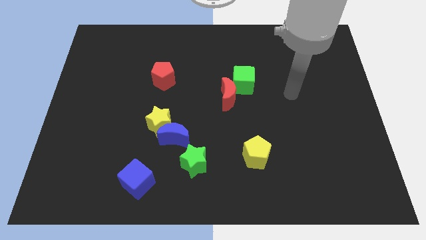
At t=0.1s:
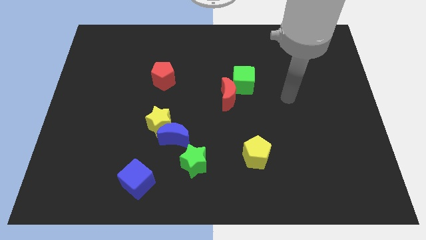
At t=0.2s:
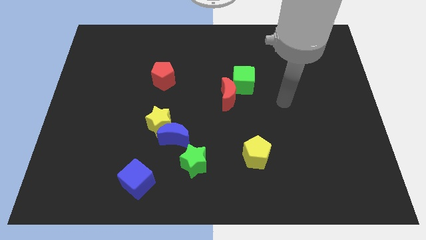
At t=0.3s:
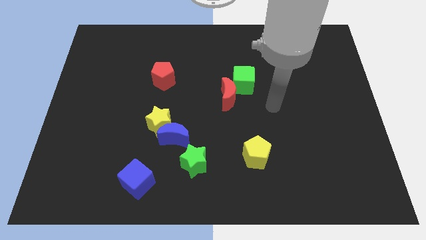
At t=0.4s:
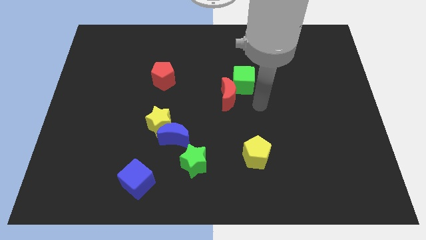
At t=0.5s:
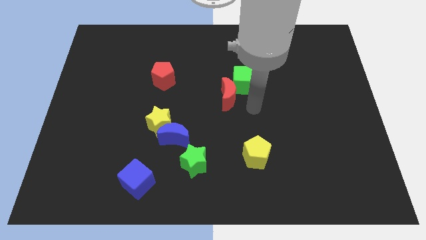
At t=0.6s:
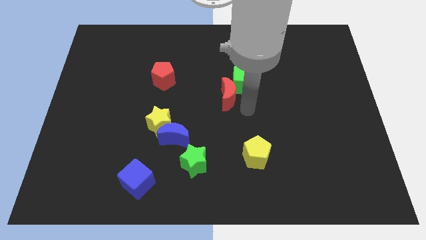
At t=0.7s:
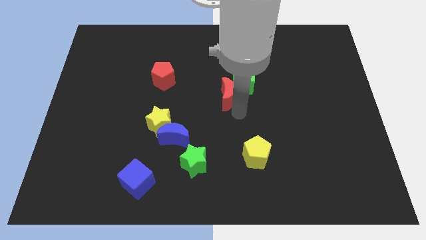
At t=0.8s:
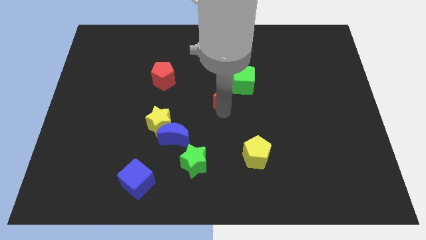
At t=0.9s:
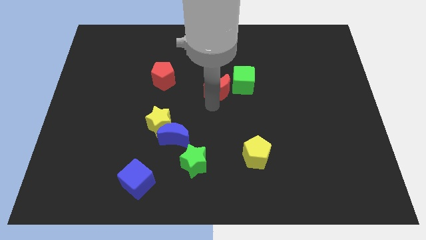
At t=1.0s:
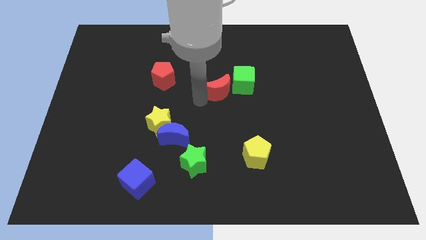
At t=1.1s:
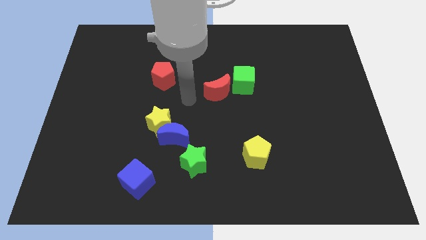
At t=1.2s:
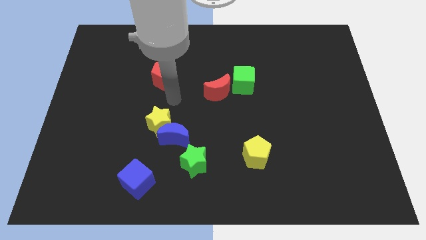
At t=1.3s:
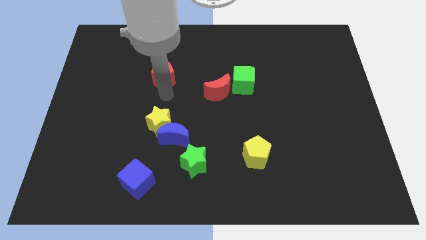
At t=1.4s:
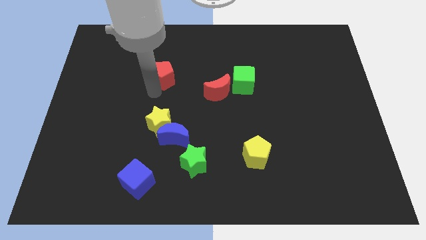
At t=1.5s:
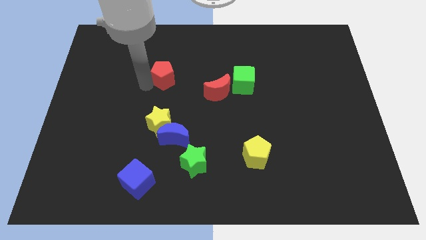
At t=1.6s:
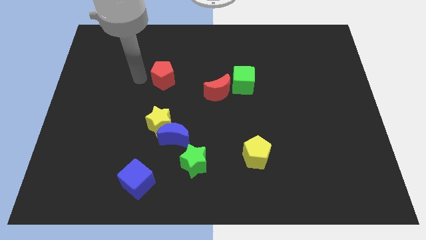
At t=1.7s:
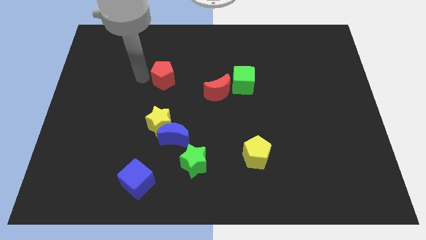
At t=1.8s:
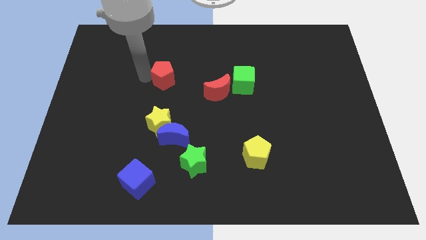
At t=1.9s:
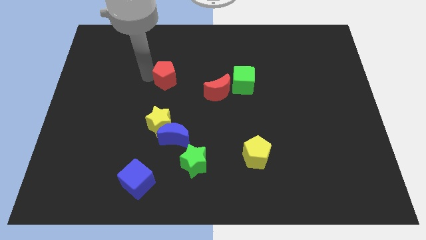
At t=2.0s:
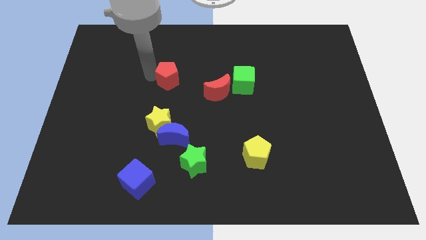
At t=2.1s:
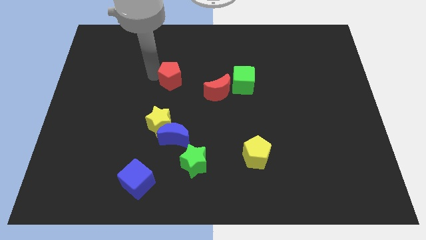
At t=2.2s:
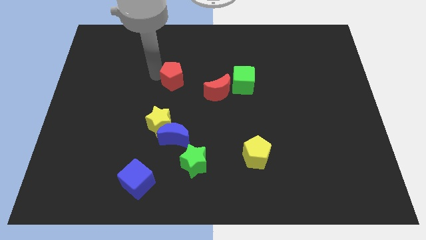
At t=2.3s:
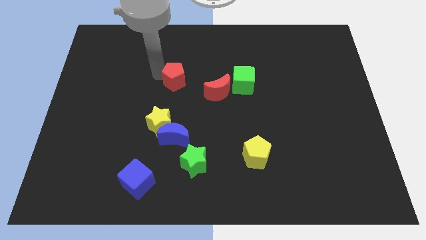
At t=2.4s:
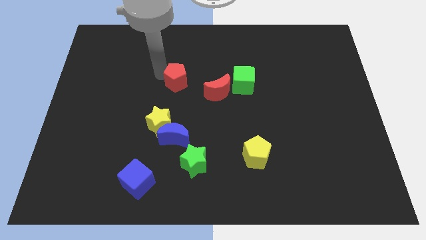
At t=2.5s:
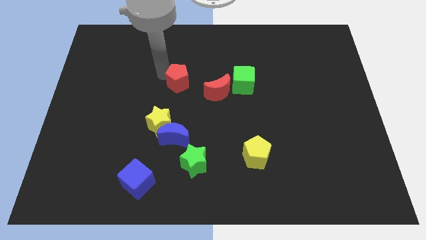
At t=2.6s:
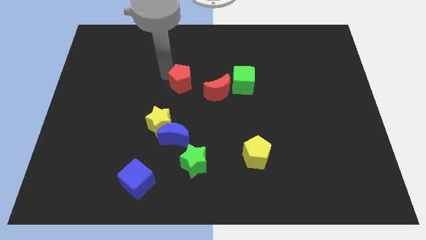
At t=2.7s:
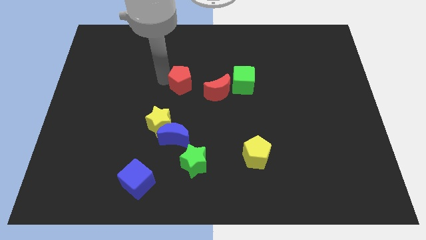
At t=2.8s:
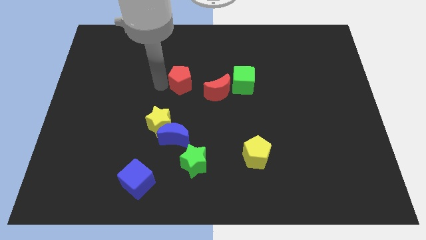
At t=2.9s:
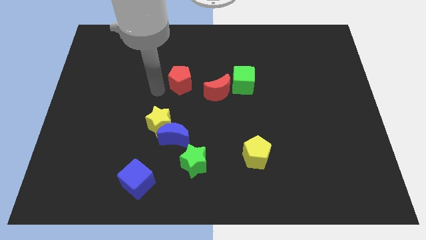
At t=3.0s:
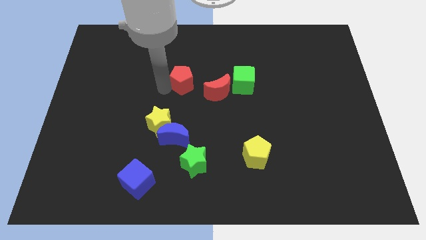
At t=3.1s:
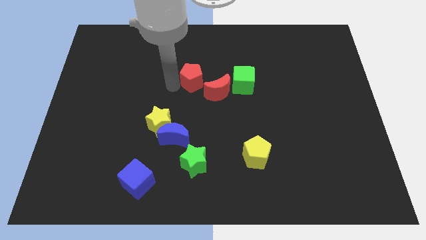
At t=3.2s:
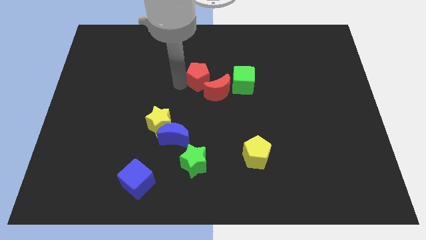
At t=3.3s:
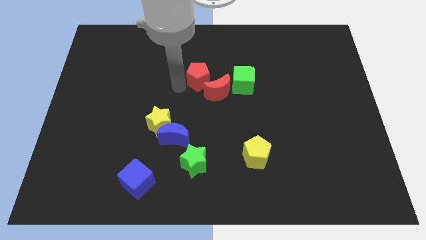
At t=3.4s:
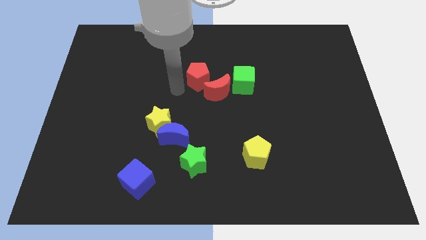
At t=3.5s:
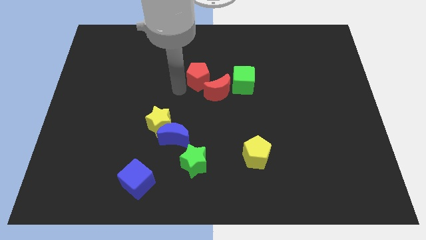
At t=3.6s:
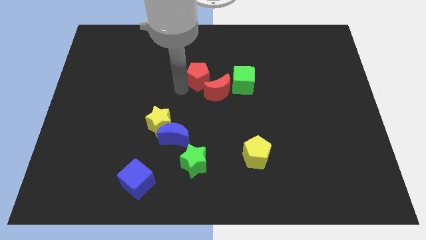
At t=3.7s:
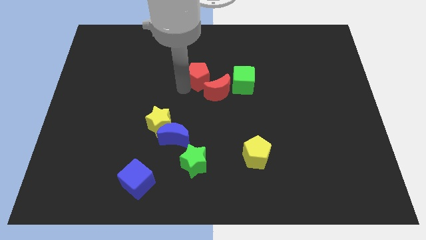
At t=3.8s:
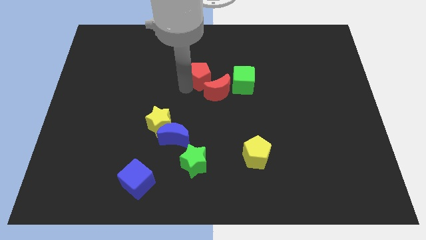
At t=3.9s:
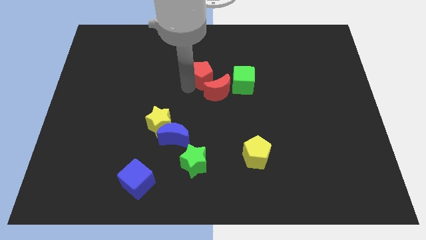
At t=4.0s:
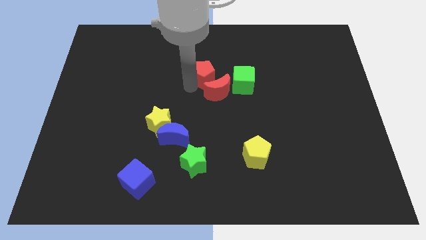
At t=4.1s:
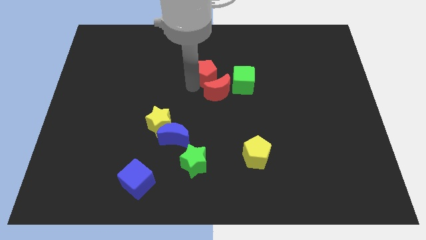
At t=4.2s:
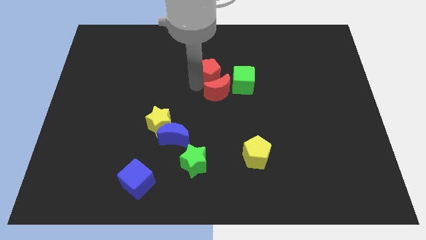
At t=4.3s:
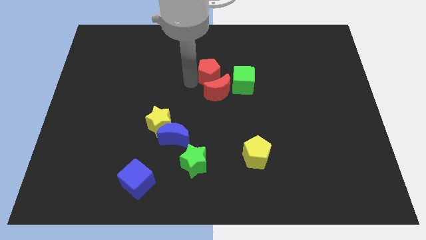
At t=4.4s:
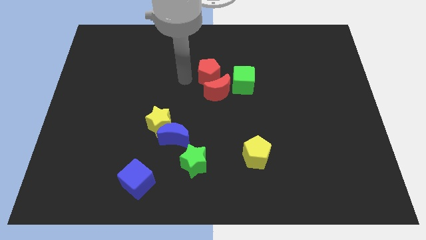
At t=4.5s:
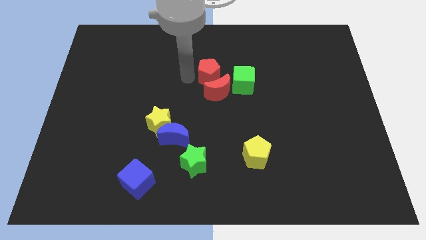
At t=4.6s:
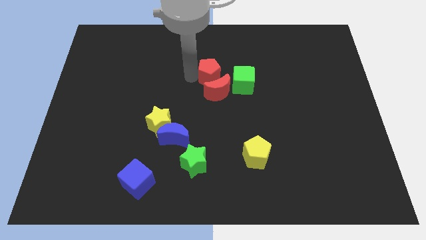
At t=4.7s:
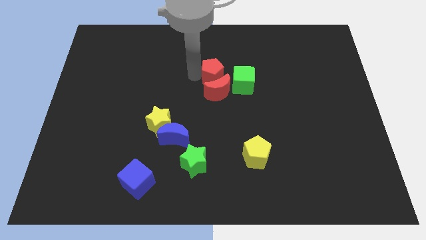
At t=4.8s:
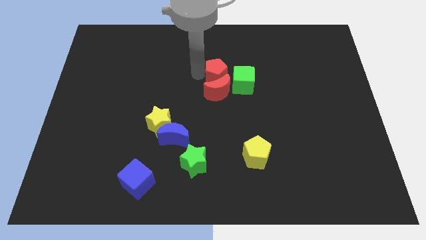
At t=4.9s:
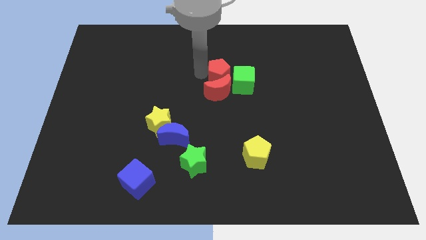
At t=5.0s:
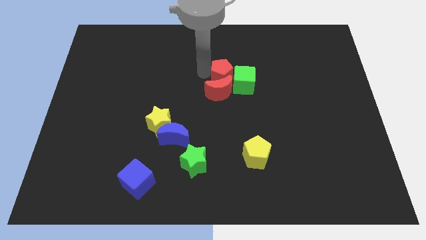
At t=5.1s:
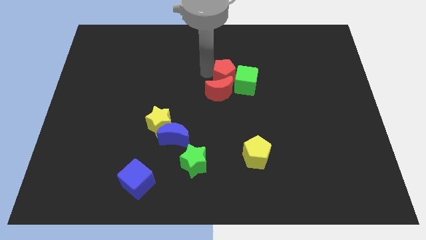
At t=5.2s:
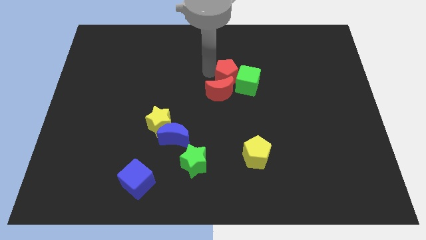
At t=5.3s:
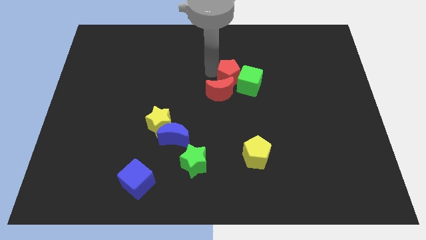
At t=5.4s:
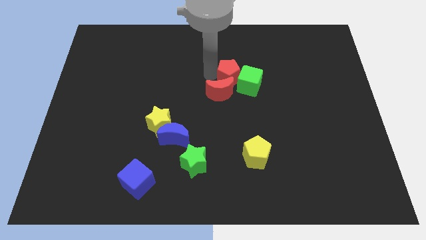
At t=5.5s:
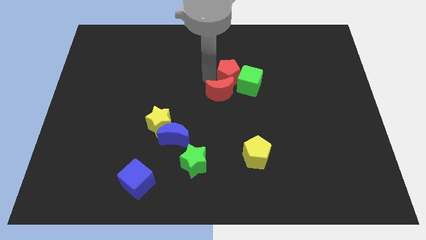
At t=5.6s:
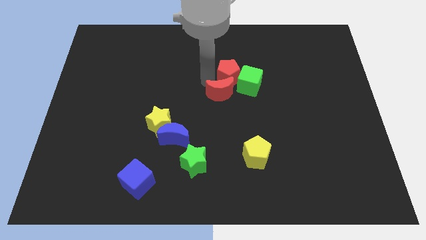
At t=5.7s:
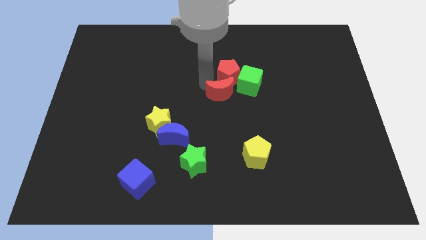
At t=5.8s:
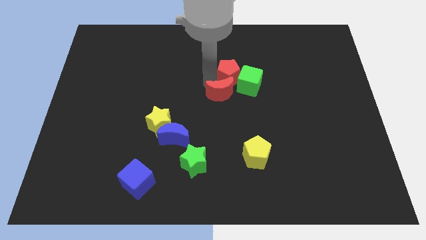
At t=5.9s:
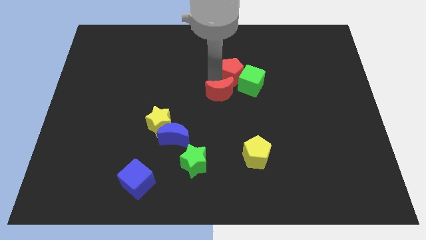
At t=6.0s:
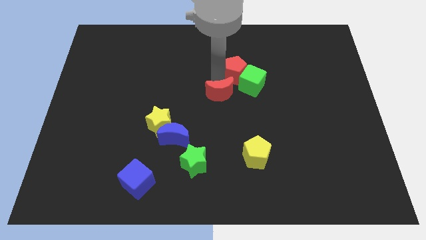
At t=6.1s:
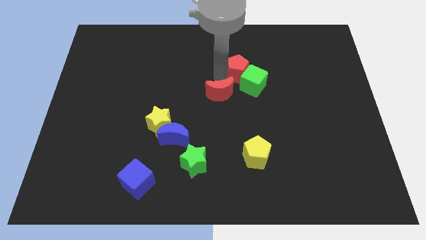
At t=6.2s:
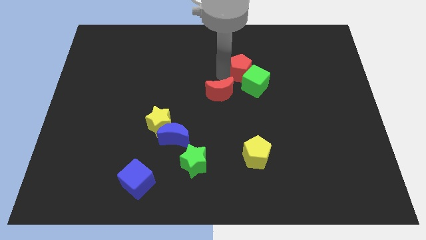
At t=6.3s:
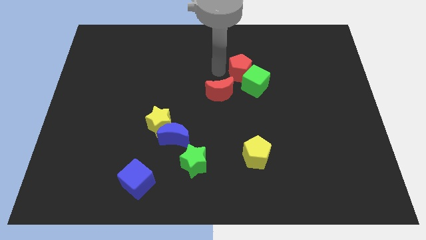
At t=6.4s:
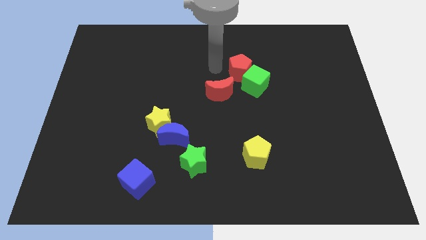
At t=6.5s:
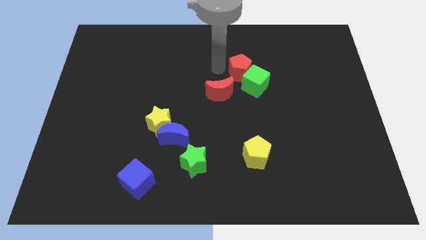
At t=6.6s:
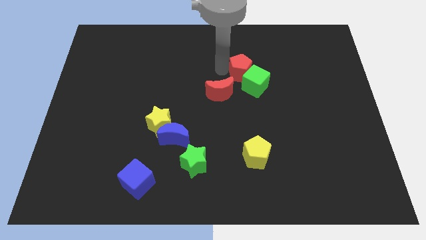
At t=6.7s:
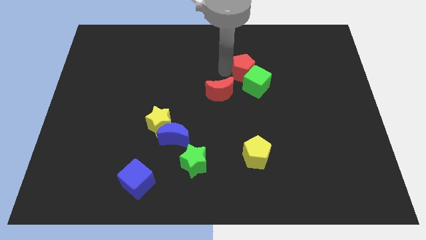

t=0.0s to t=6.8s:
push the red pentagon right

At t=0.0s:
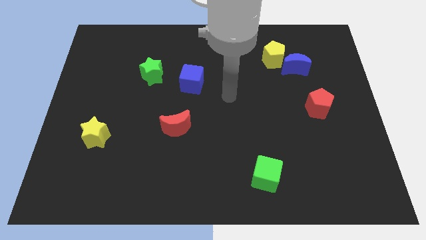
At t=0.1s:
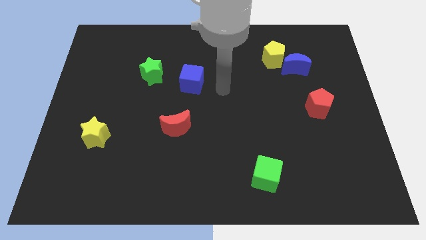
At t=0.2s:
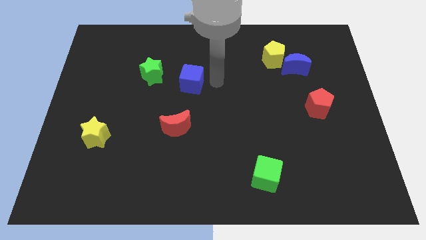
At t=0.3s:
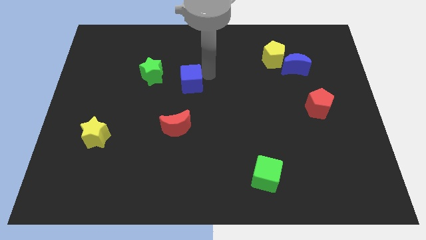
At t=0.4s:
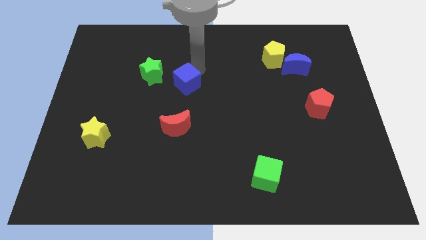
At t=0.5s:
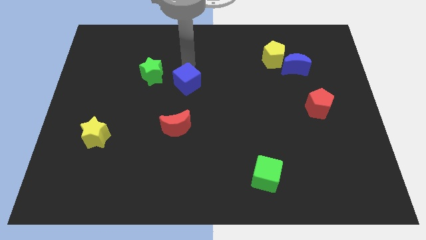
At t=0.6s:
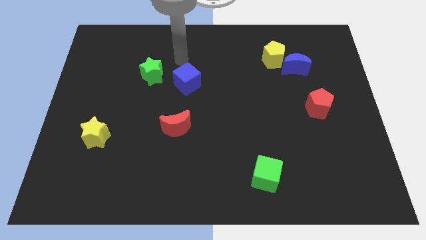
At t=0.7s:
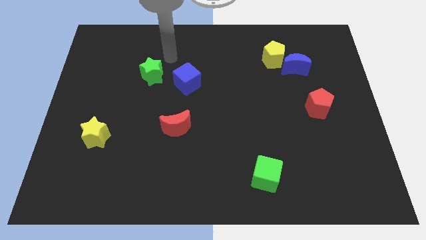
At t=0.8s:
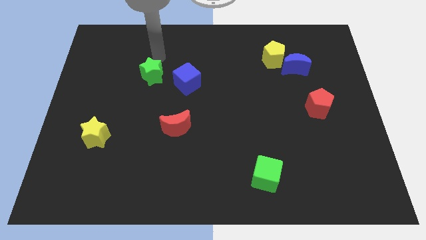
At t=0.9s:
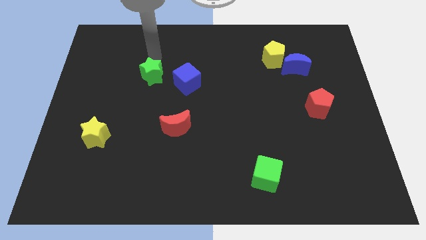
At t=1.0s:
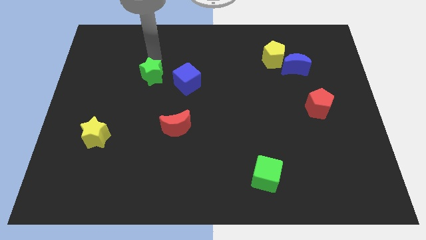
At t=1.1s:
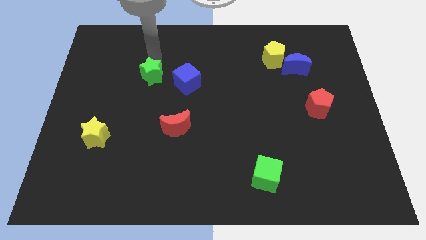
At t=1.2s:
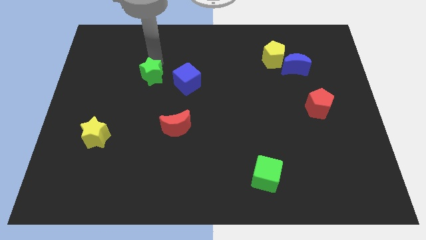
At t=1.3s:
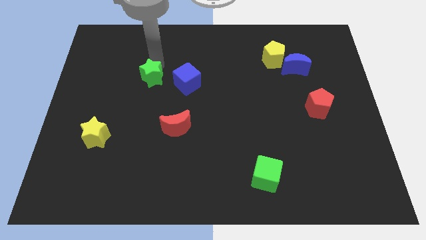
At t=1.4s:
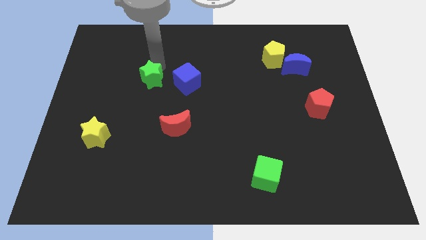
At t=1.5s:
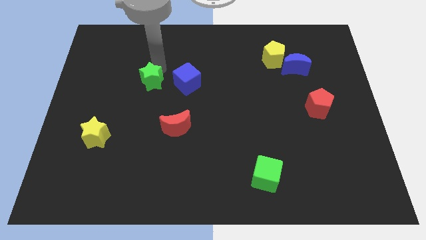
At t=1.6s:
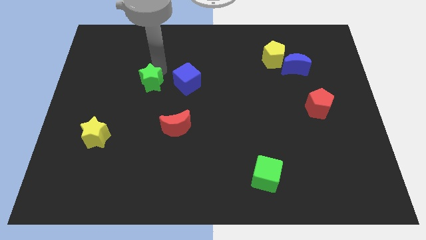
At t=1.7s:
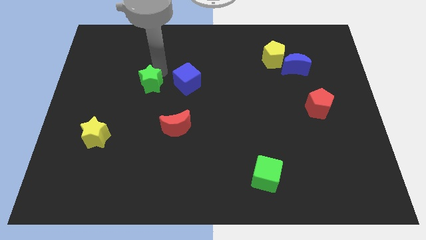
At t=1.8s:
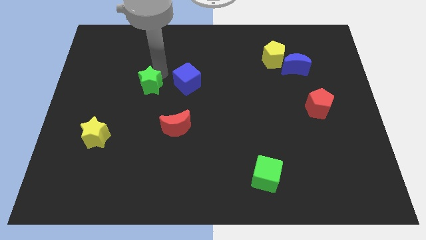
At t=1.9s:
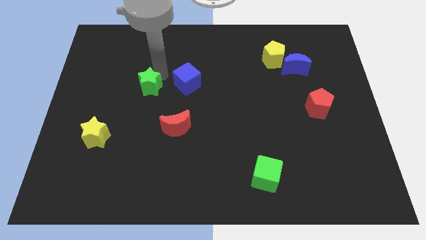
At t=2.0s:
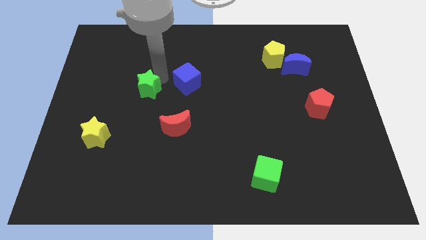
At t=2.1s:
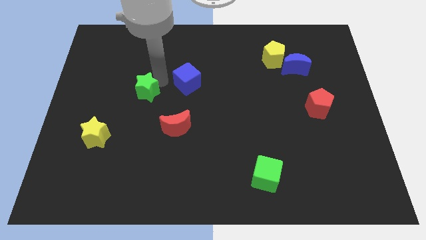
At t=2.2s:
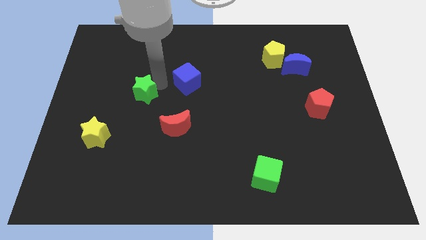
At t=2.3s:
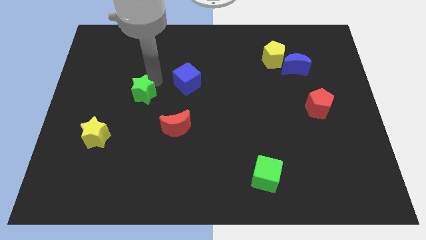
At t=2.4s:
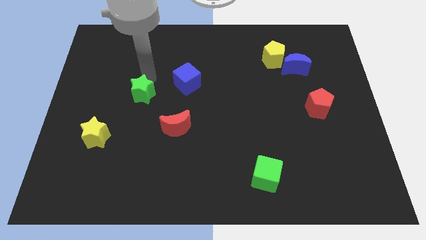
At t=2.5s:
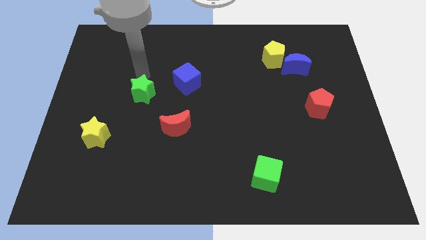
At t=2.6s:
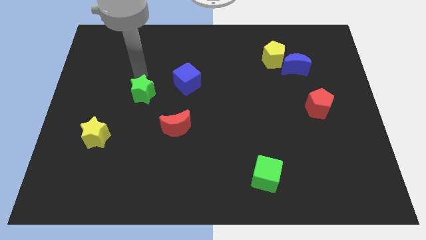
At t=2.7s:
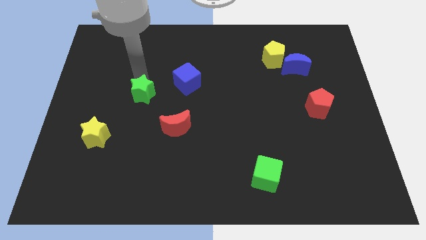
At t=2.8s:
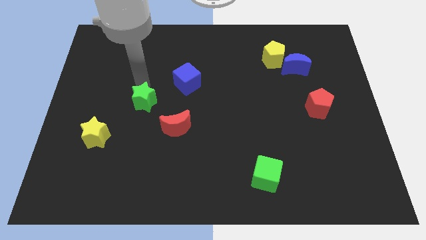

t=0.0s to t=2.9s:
slide the green star a little bit downwards
